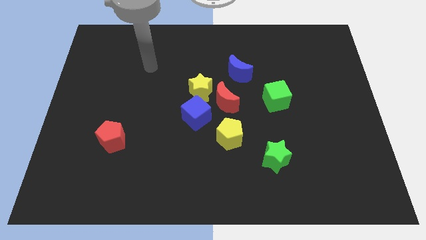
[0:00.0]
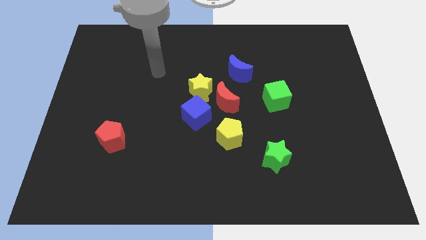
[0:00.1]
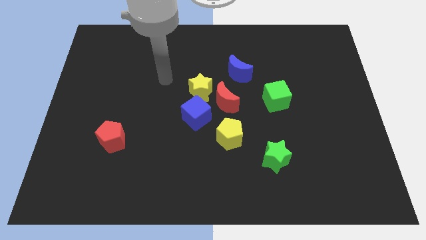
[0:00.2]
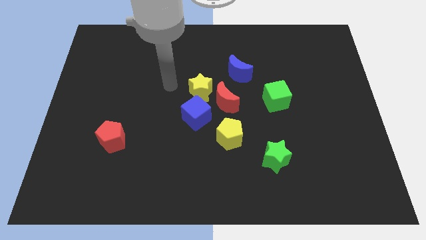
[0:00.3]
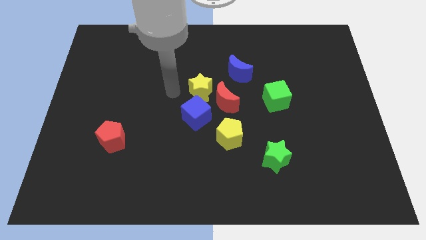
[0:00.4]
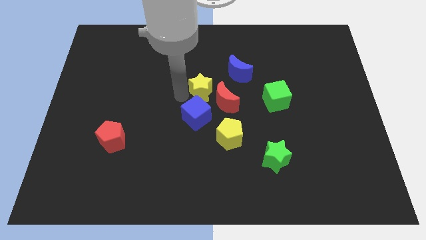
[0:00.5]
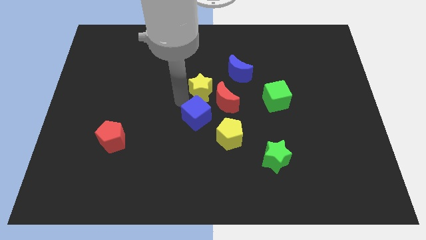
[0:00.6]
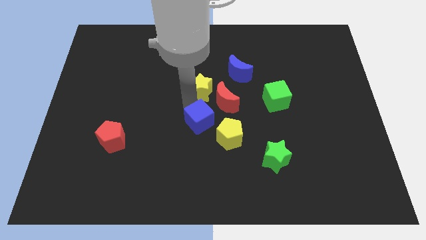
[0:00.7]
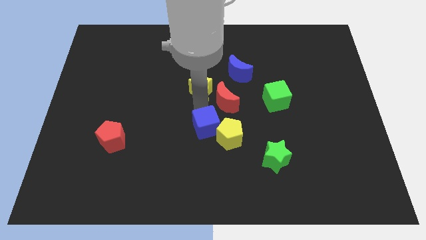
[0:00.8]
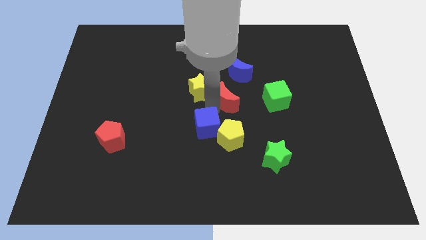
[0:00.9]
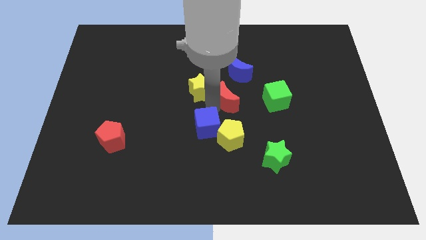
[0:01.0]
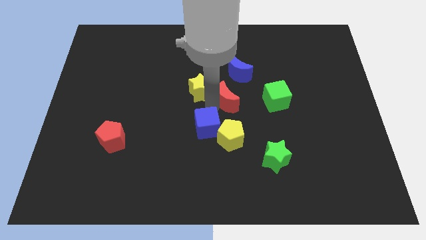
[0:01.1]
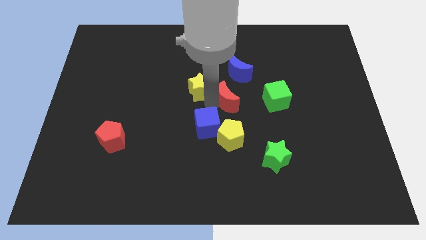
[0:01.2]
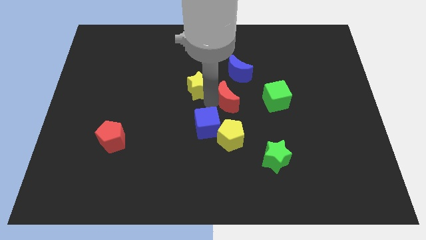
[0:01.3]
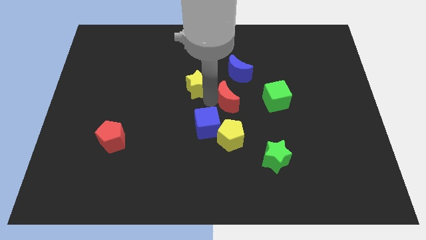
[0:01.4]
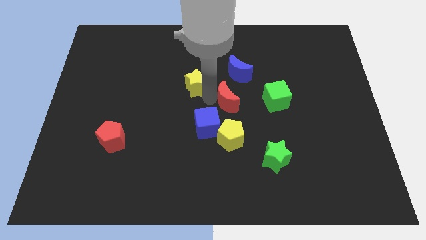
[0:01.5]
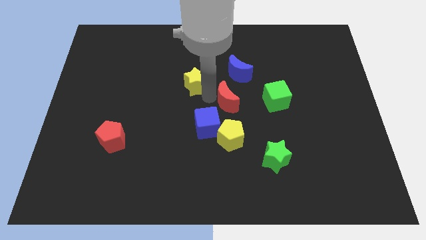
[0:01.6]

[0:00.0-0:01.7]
move the yellow star away from the red moon and blue cube

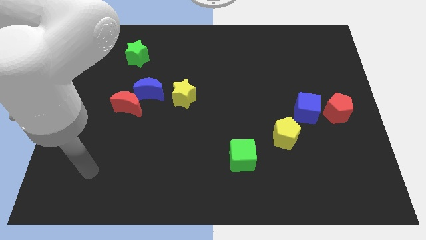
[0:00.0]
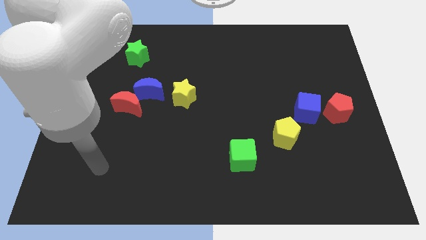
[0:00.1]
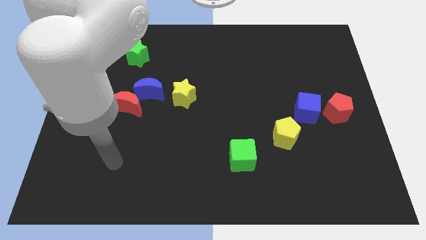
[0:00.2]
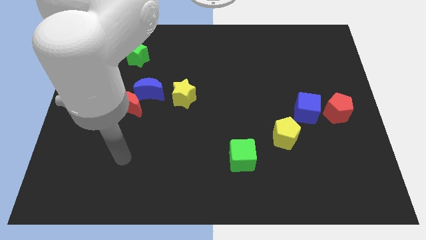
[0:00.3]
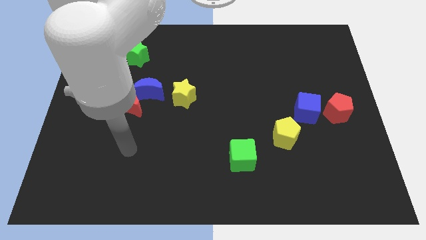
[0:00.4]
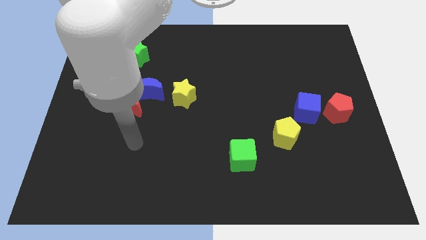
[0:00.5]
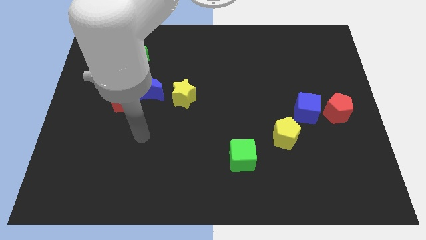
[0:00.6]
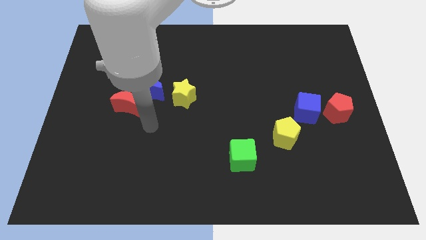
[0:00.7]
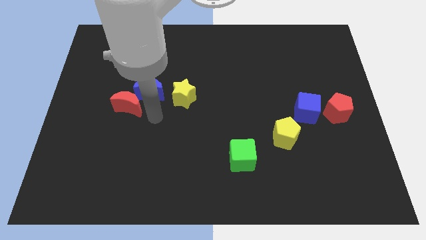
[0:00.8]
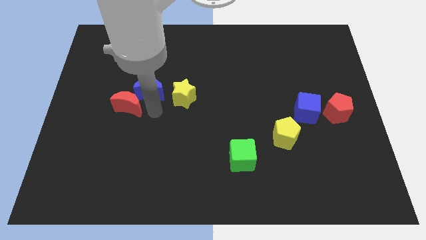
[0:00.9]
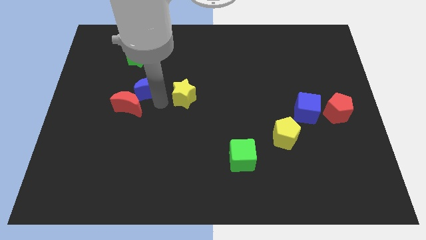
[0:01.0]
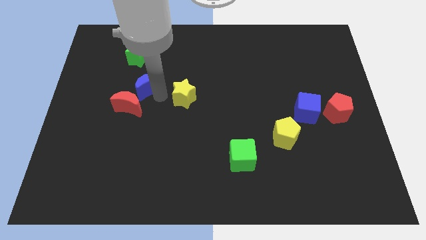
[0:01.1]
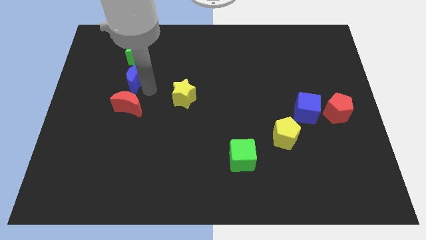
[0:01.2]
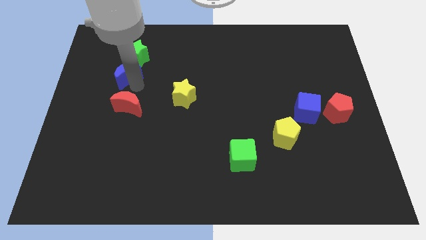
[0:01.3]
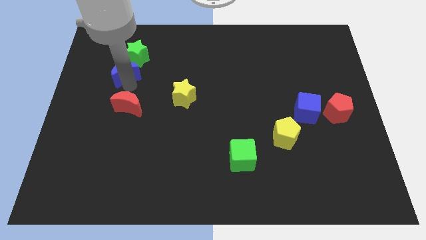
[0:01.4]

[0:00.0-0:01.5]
separate the red moon from the blue moon

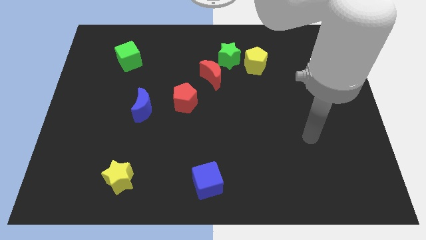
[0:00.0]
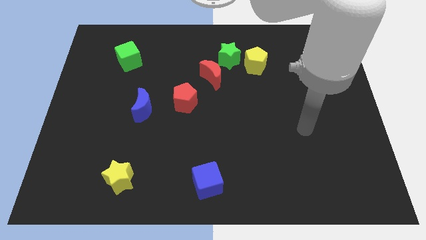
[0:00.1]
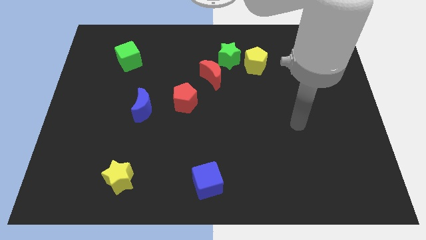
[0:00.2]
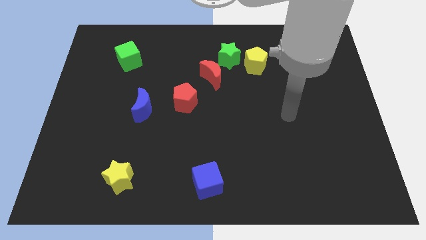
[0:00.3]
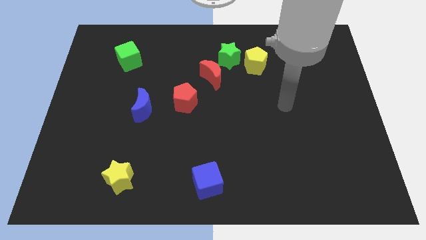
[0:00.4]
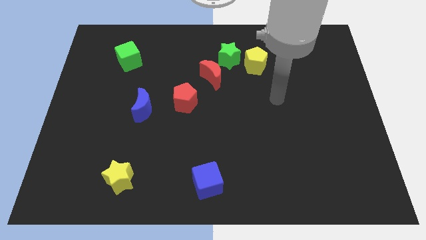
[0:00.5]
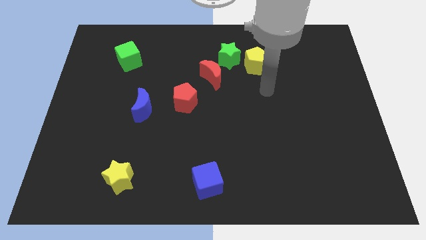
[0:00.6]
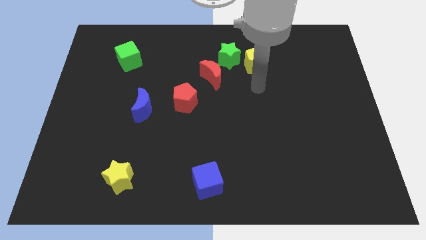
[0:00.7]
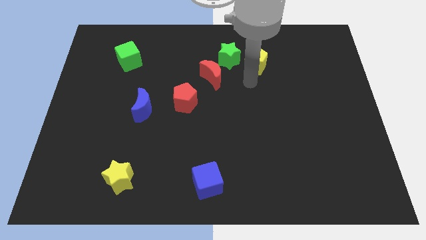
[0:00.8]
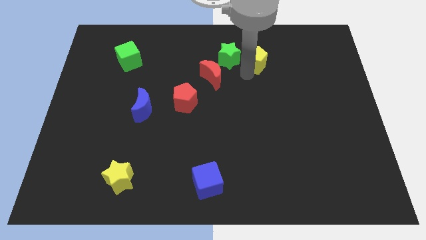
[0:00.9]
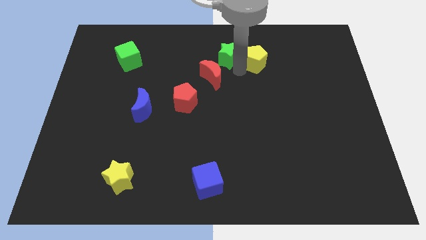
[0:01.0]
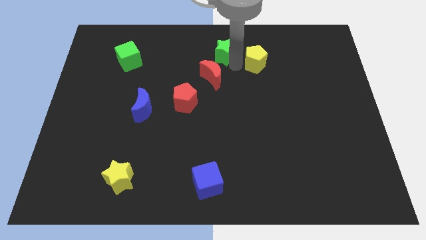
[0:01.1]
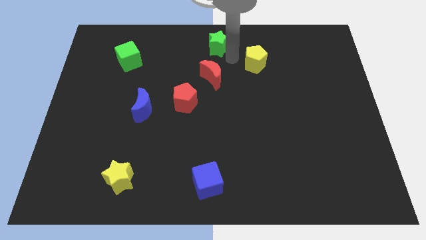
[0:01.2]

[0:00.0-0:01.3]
move the yellow pentagon away from the green star

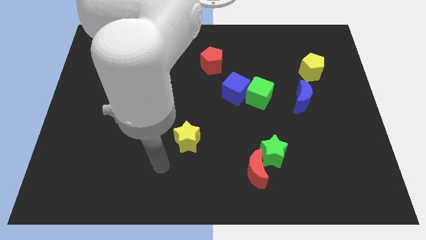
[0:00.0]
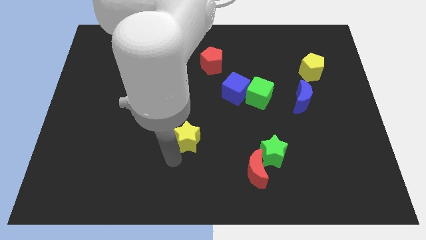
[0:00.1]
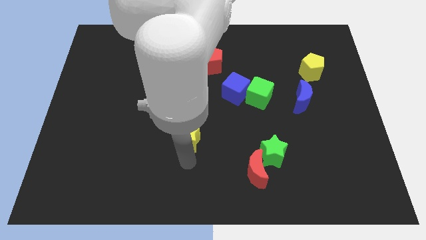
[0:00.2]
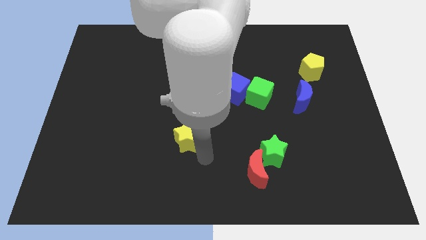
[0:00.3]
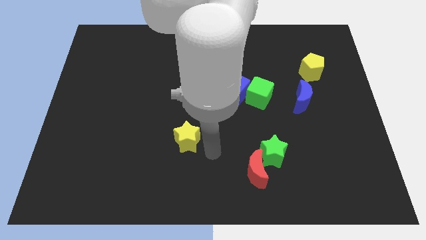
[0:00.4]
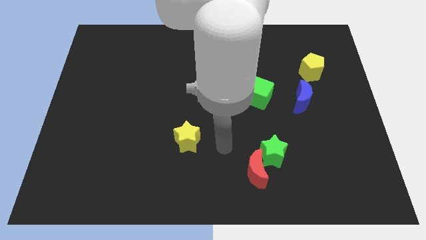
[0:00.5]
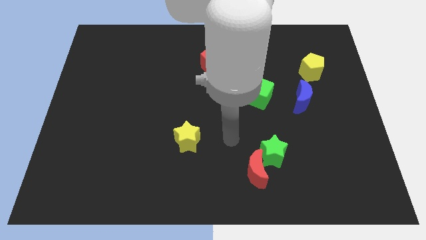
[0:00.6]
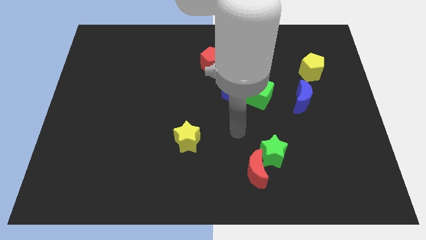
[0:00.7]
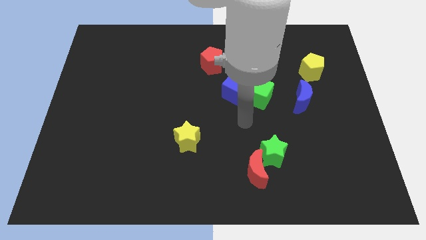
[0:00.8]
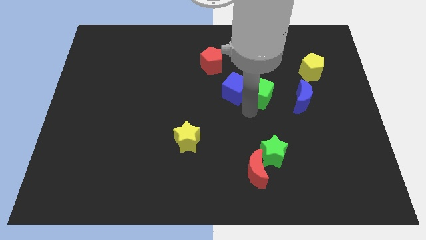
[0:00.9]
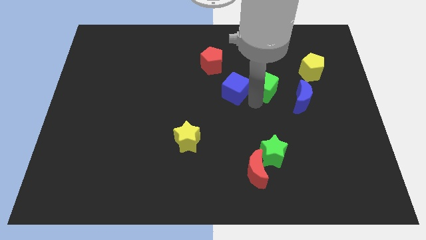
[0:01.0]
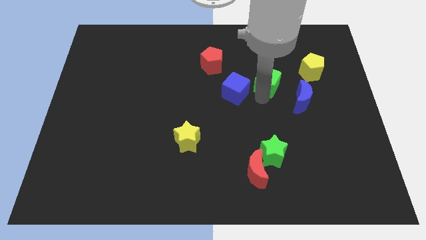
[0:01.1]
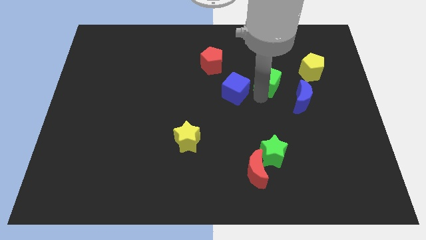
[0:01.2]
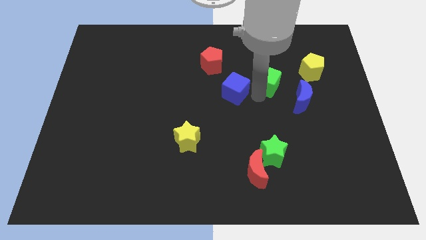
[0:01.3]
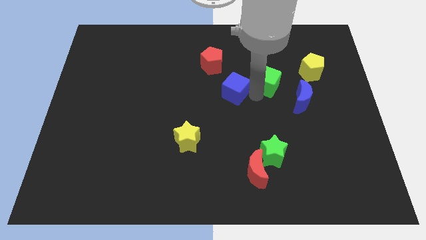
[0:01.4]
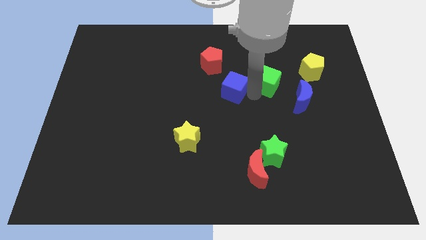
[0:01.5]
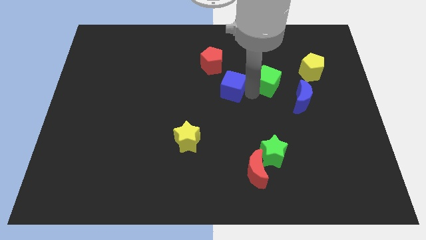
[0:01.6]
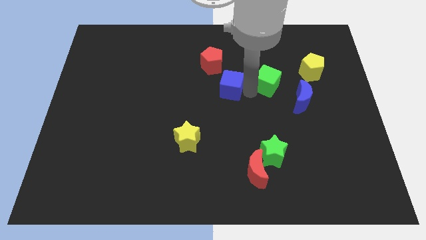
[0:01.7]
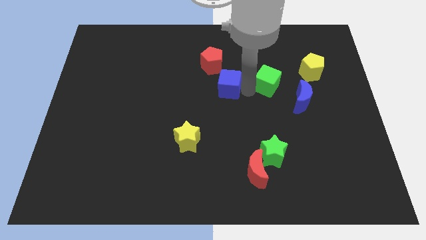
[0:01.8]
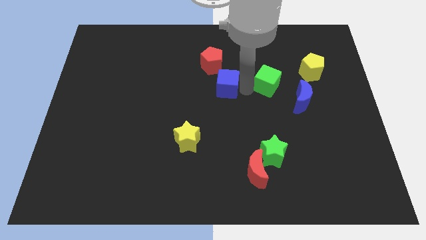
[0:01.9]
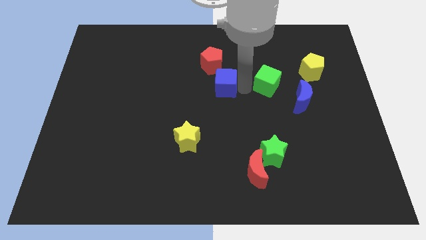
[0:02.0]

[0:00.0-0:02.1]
separate the blue cube from the green cube

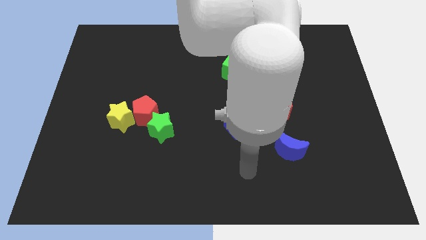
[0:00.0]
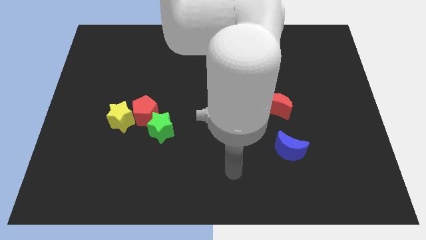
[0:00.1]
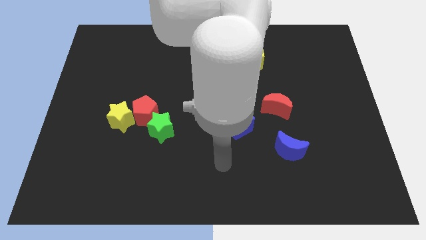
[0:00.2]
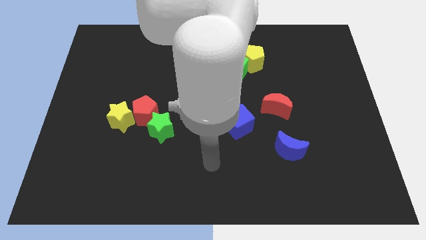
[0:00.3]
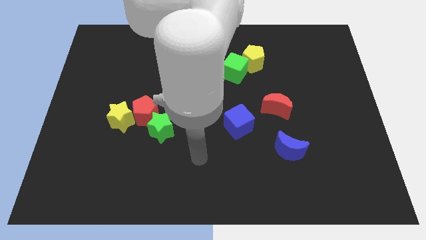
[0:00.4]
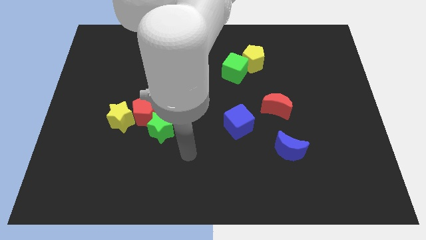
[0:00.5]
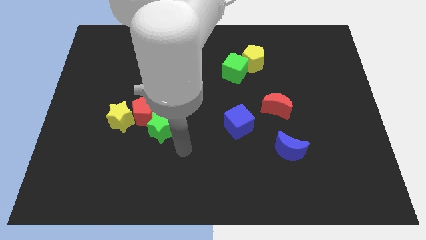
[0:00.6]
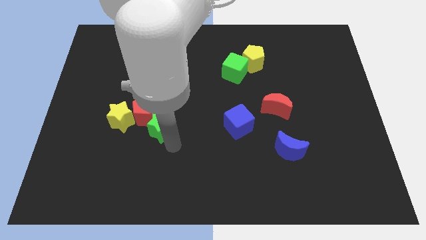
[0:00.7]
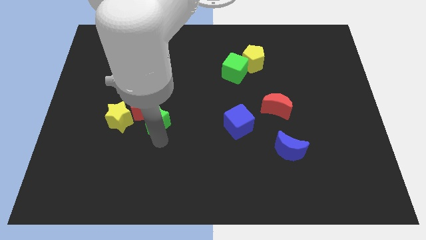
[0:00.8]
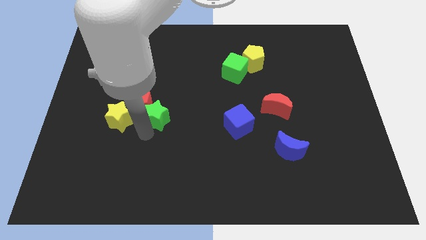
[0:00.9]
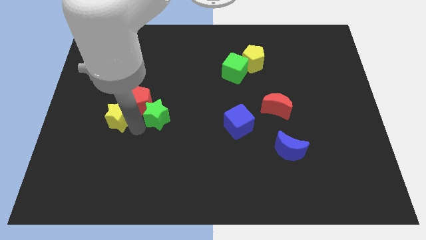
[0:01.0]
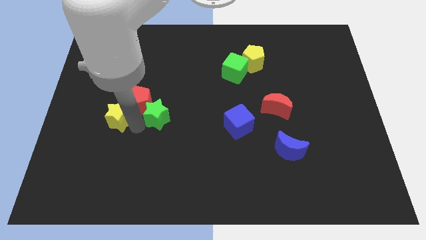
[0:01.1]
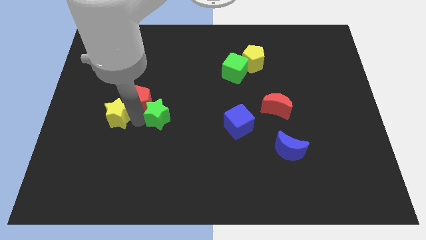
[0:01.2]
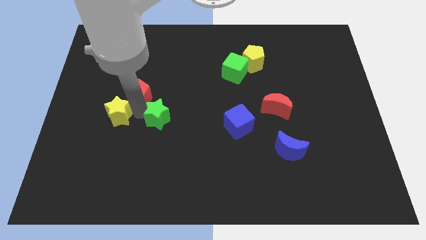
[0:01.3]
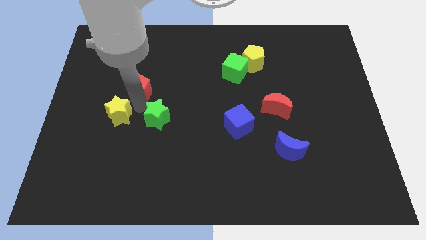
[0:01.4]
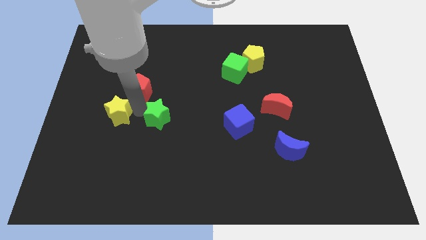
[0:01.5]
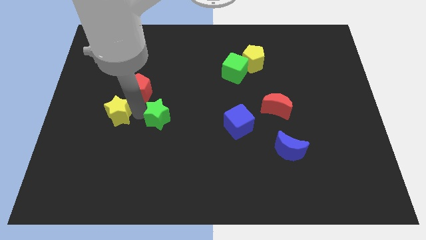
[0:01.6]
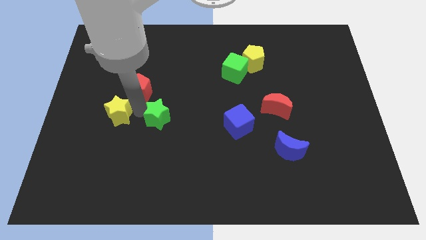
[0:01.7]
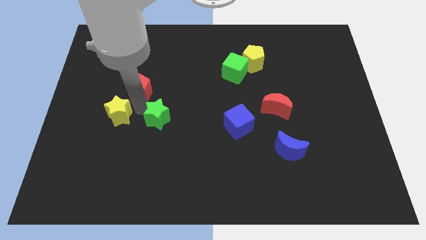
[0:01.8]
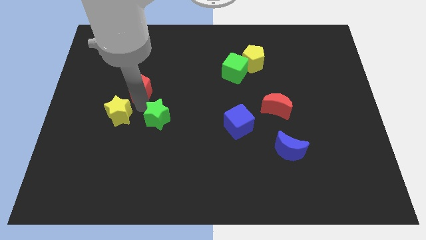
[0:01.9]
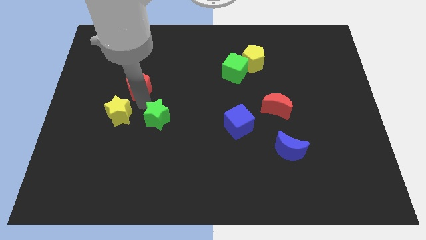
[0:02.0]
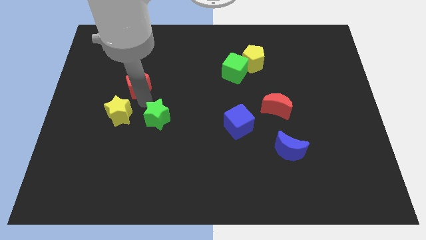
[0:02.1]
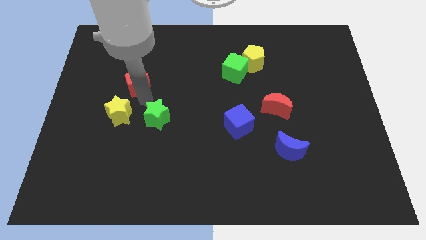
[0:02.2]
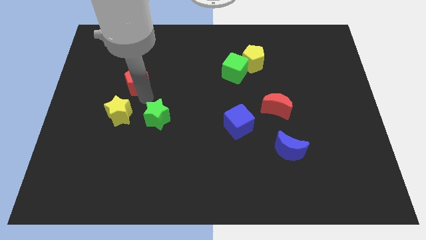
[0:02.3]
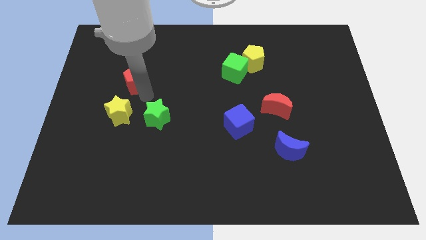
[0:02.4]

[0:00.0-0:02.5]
move the red pentagon away from the green star and yellow star

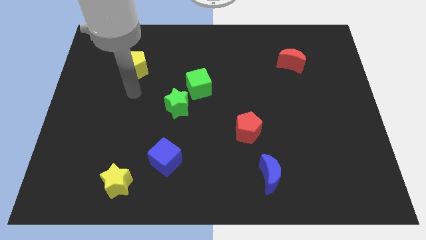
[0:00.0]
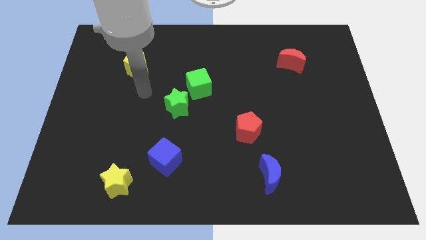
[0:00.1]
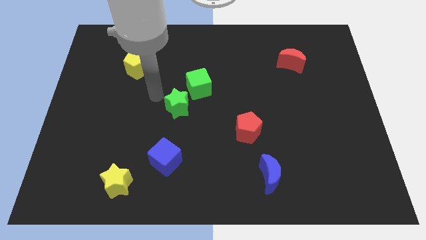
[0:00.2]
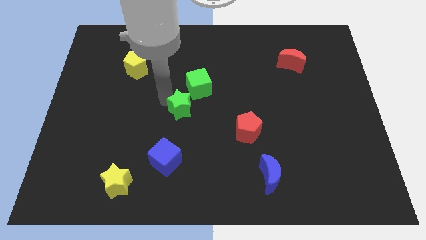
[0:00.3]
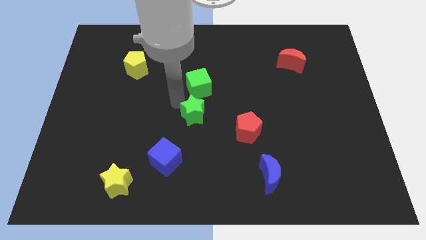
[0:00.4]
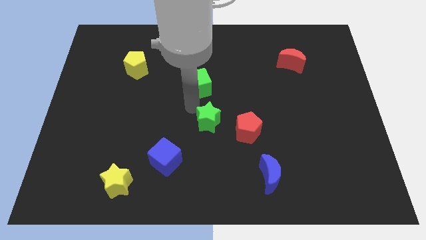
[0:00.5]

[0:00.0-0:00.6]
separate the green cube from the green star
